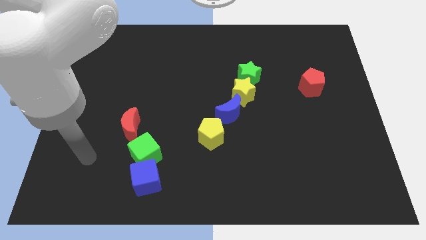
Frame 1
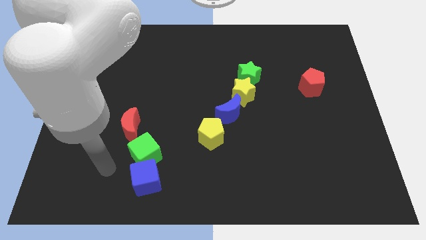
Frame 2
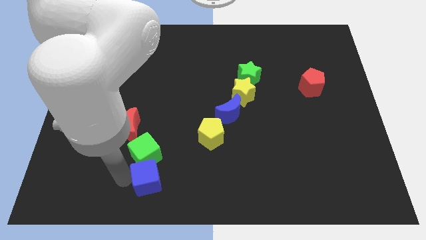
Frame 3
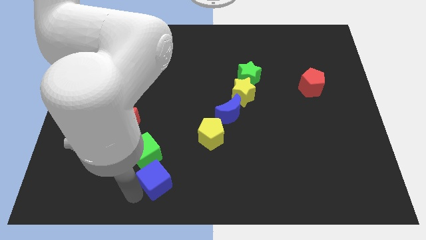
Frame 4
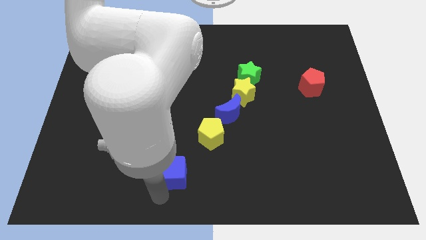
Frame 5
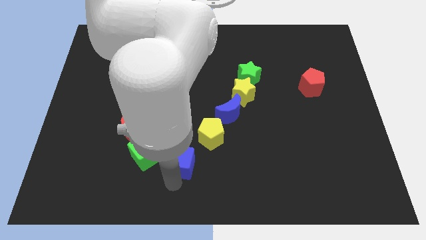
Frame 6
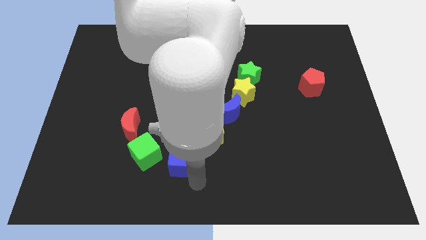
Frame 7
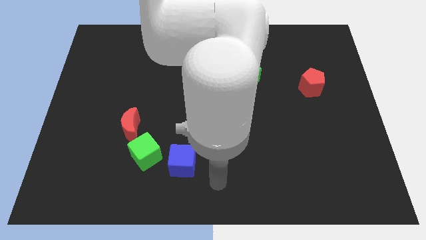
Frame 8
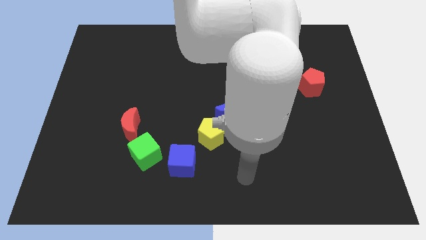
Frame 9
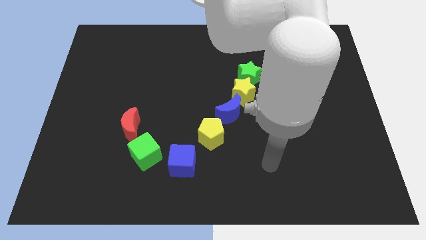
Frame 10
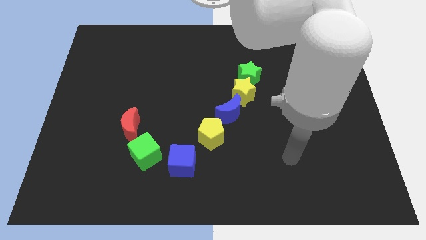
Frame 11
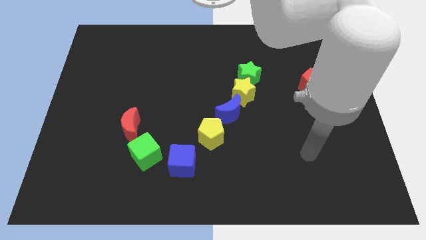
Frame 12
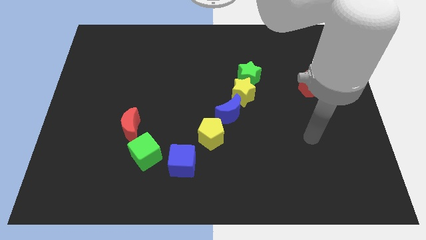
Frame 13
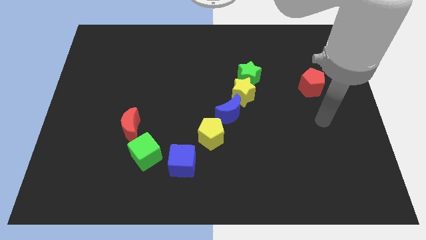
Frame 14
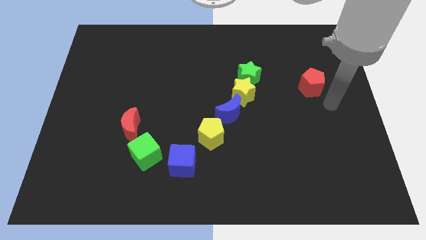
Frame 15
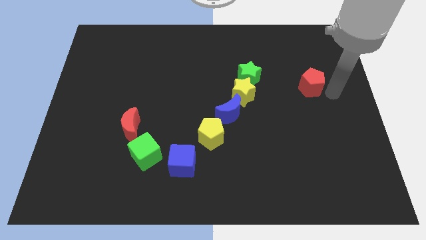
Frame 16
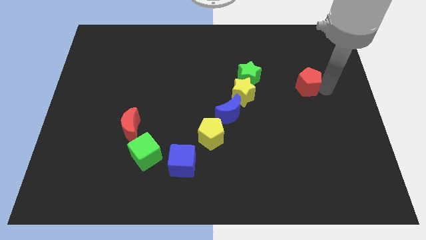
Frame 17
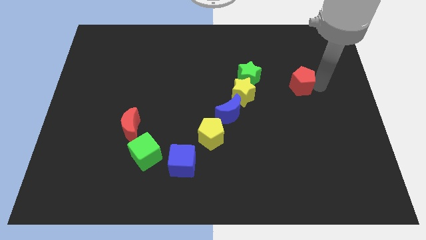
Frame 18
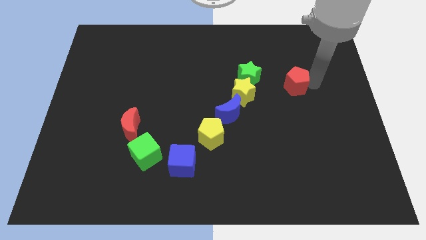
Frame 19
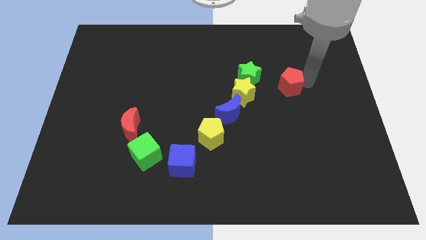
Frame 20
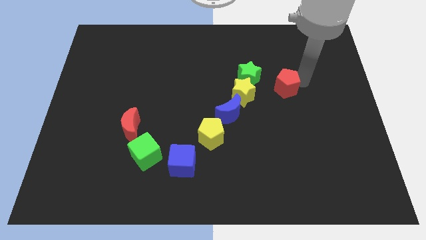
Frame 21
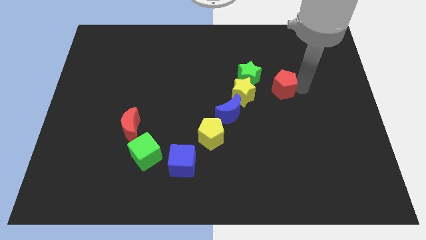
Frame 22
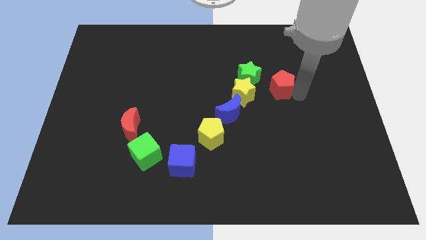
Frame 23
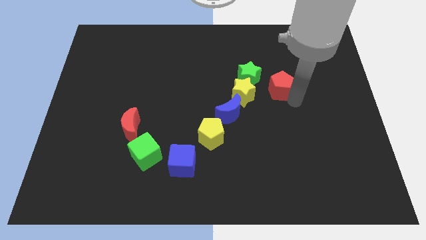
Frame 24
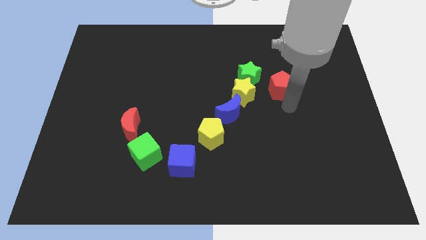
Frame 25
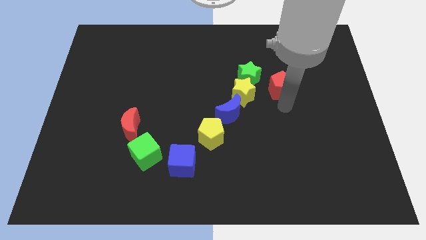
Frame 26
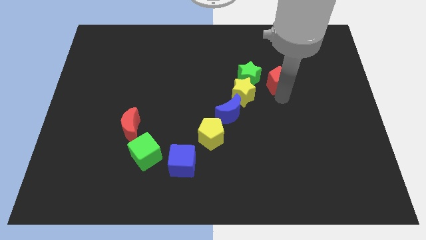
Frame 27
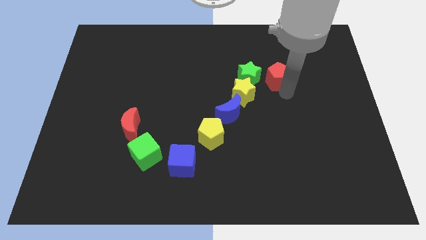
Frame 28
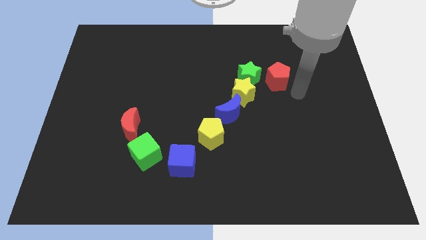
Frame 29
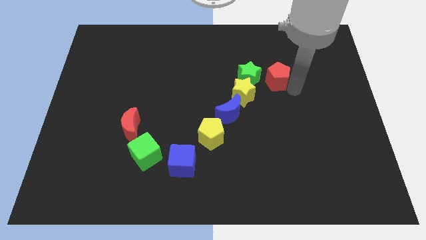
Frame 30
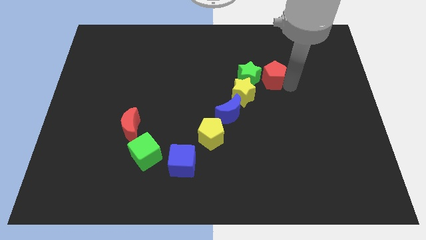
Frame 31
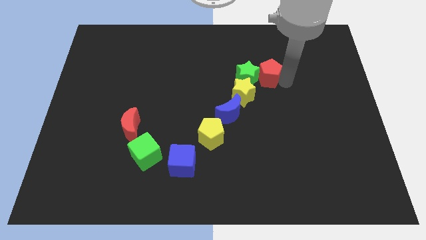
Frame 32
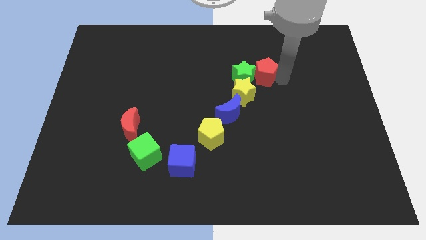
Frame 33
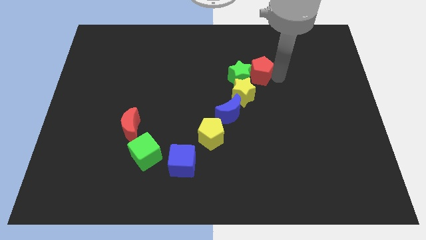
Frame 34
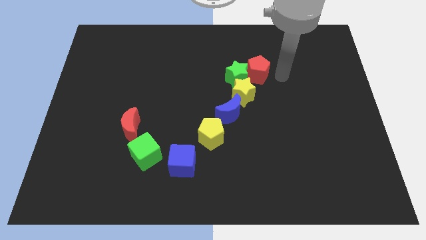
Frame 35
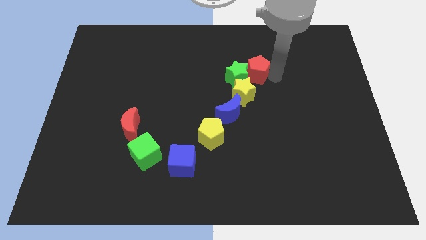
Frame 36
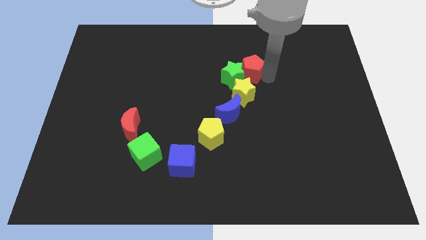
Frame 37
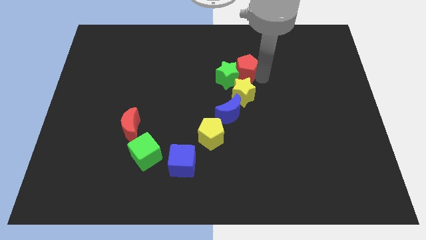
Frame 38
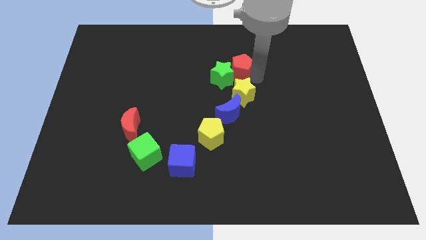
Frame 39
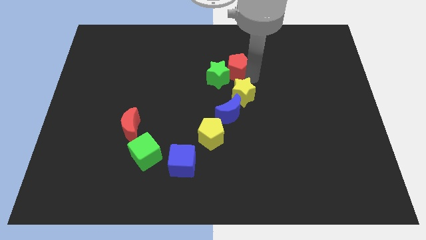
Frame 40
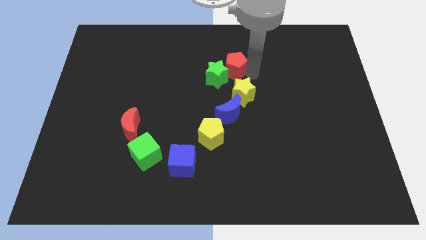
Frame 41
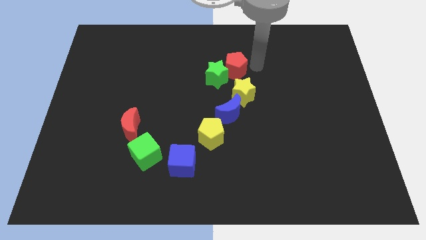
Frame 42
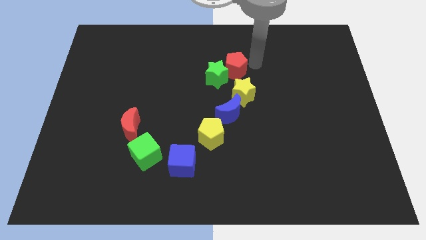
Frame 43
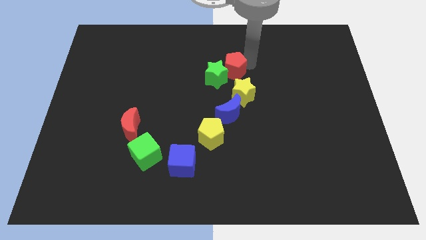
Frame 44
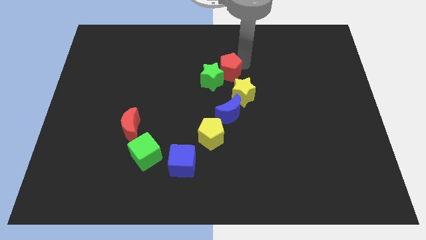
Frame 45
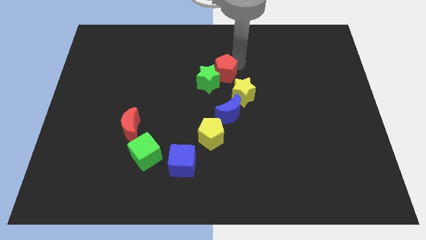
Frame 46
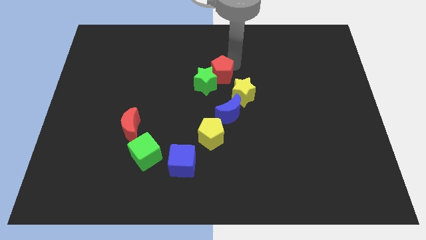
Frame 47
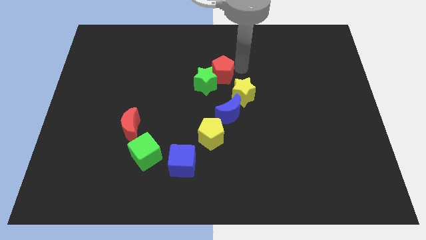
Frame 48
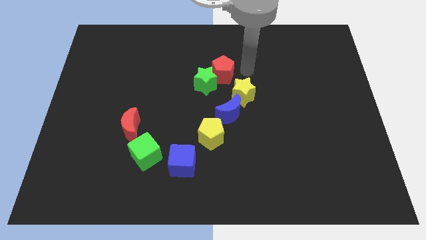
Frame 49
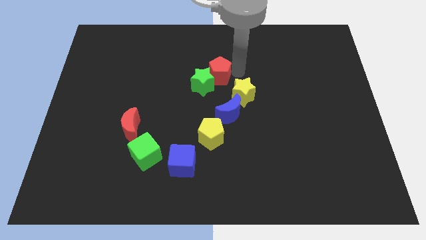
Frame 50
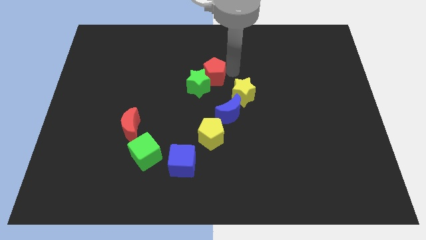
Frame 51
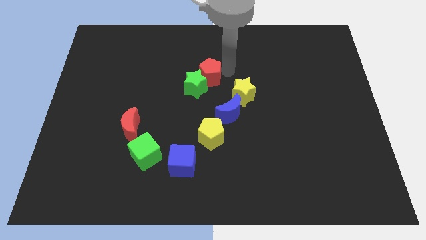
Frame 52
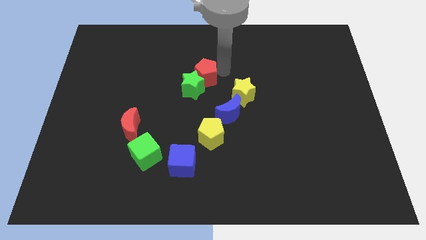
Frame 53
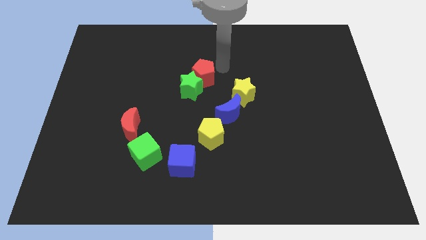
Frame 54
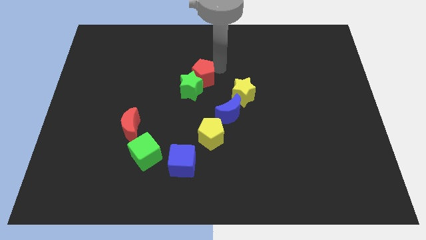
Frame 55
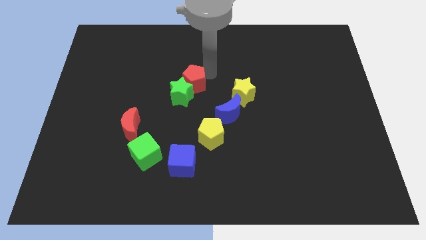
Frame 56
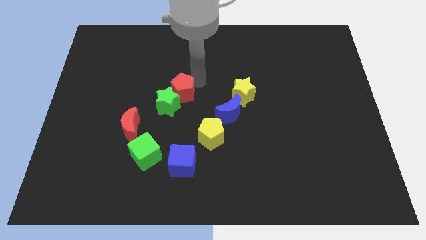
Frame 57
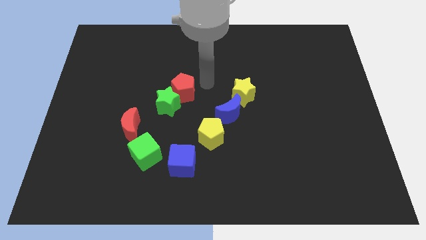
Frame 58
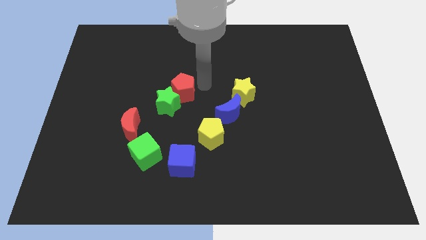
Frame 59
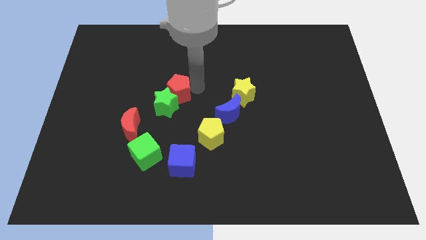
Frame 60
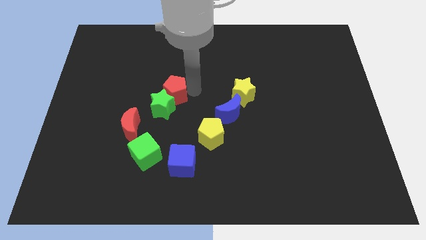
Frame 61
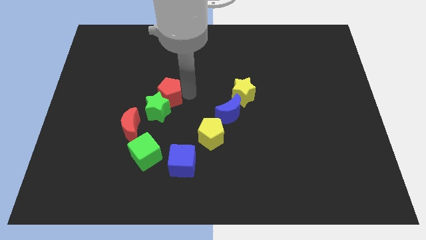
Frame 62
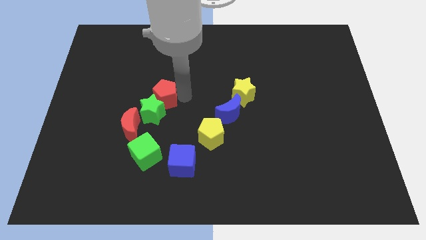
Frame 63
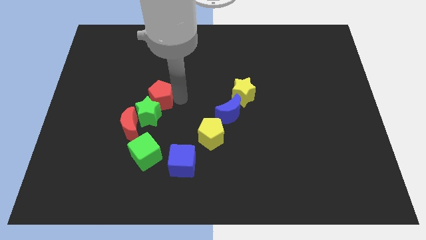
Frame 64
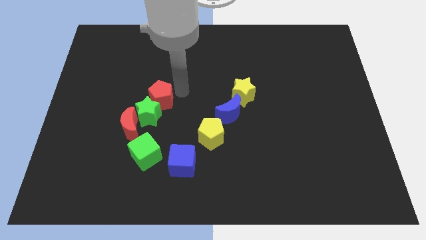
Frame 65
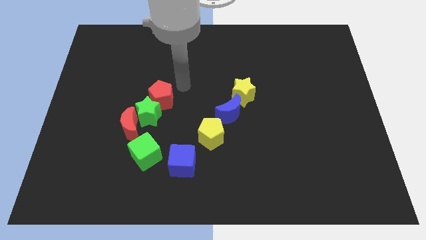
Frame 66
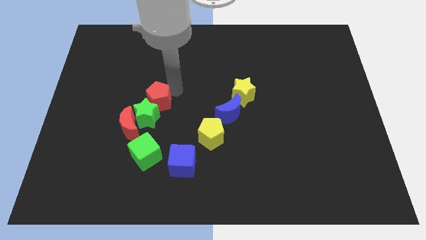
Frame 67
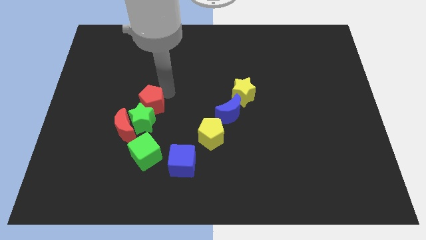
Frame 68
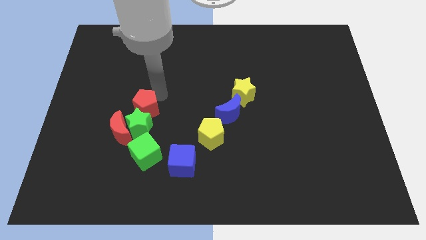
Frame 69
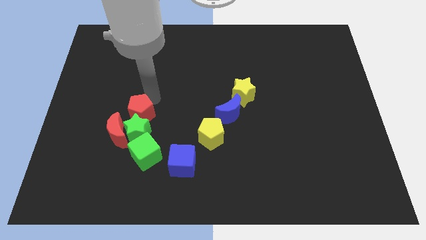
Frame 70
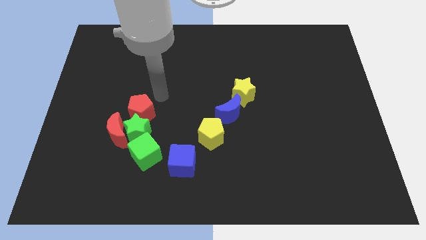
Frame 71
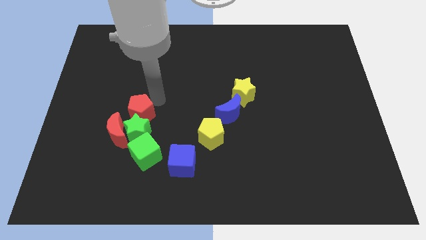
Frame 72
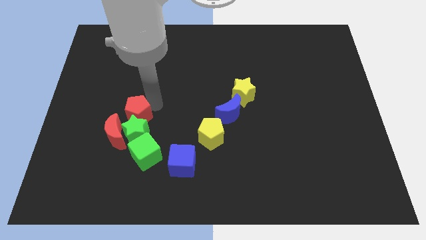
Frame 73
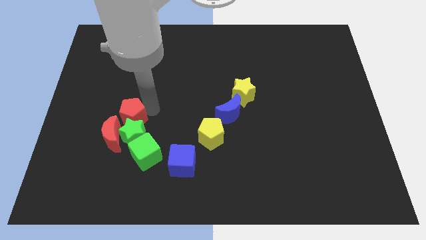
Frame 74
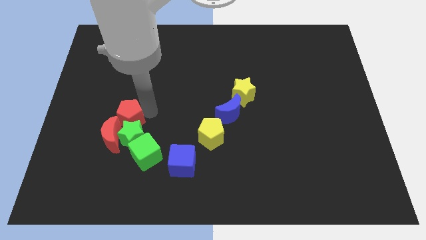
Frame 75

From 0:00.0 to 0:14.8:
move the red pentagon to the red moon
